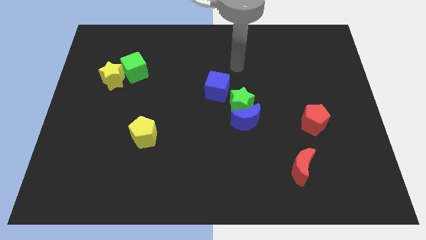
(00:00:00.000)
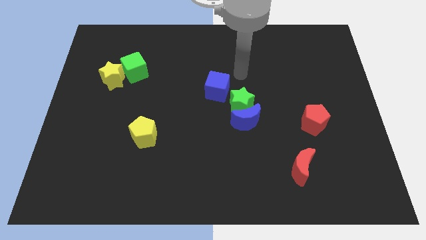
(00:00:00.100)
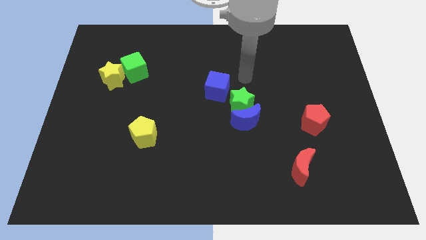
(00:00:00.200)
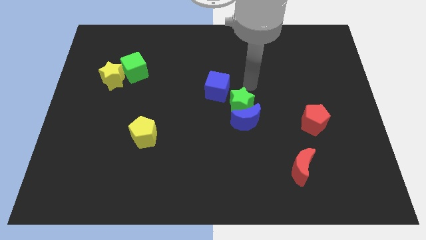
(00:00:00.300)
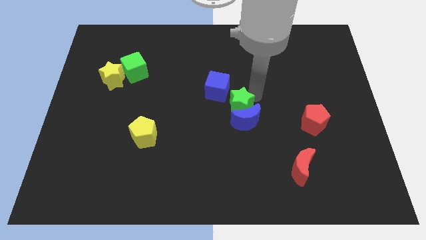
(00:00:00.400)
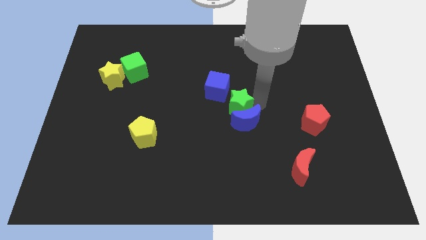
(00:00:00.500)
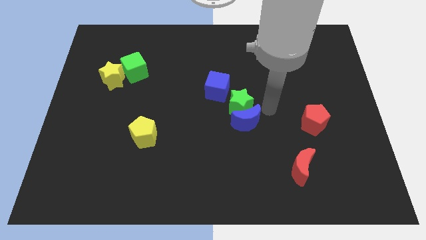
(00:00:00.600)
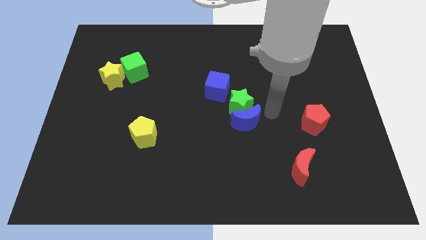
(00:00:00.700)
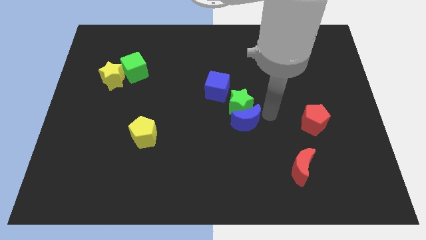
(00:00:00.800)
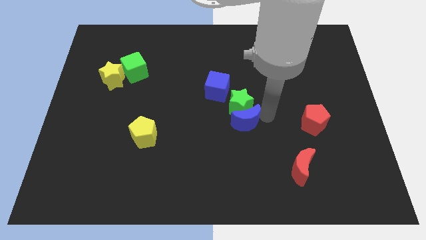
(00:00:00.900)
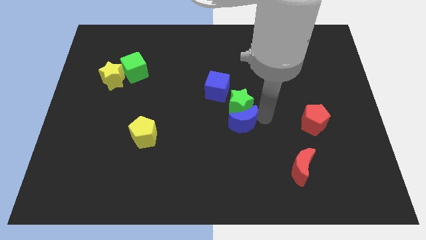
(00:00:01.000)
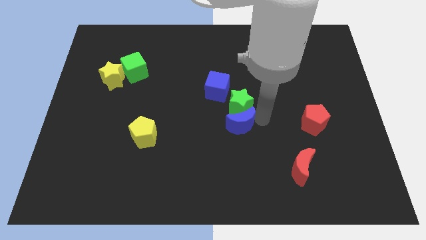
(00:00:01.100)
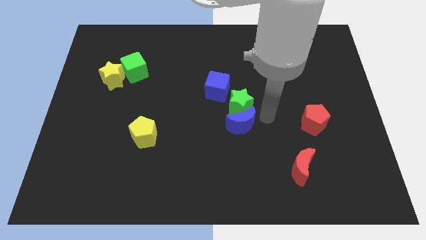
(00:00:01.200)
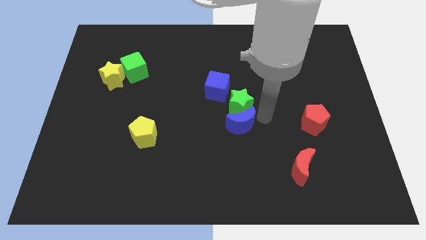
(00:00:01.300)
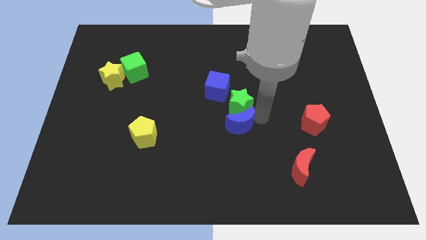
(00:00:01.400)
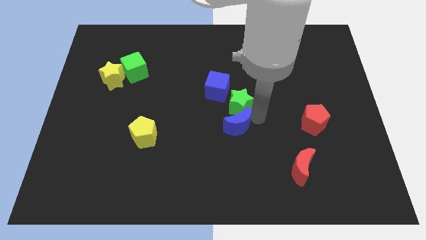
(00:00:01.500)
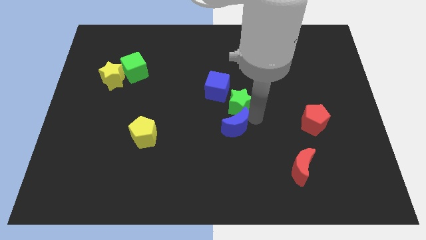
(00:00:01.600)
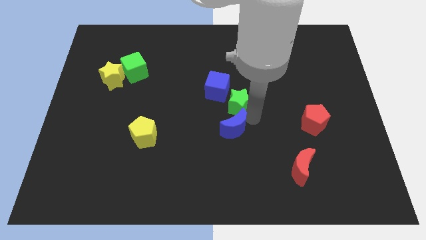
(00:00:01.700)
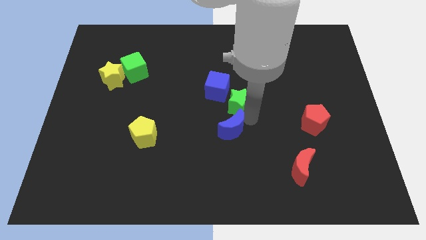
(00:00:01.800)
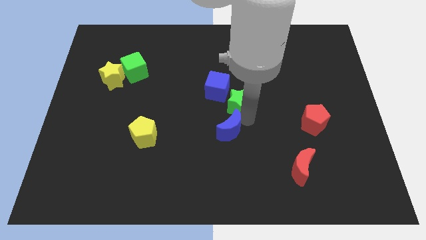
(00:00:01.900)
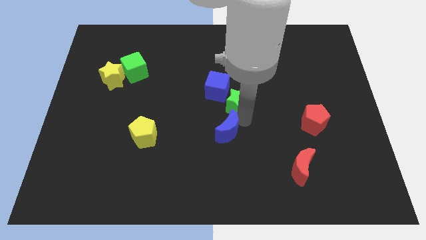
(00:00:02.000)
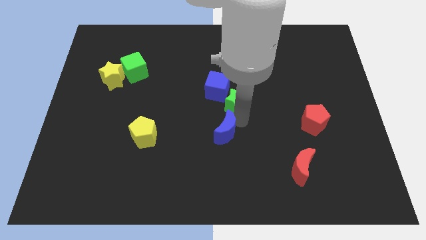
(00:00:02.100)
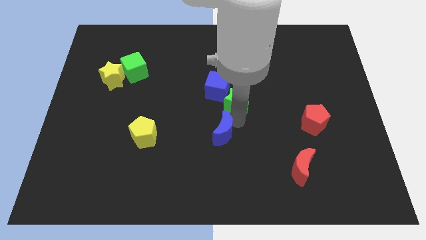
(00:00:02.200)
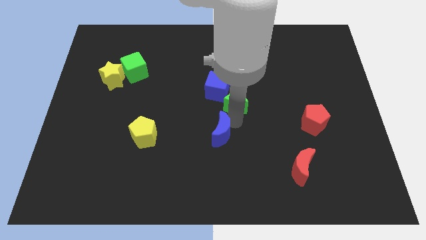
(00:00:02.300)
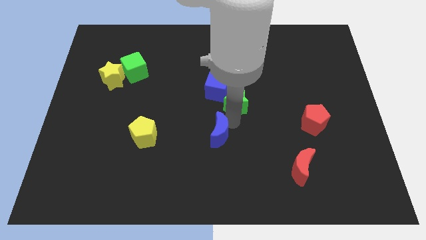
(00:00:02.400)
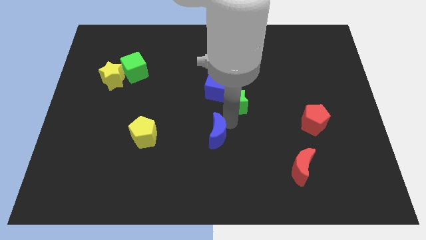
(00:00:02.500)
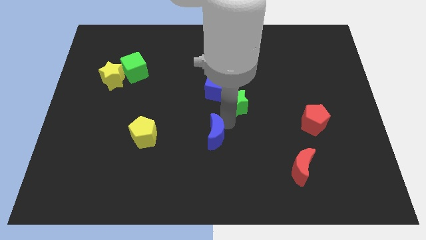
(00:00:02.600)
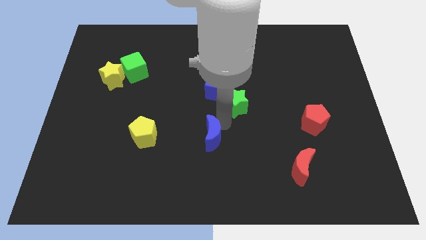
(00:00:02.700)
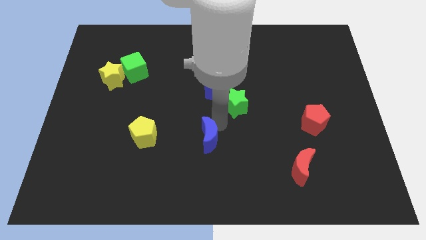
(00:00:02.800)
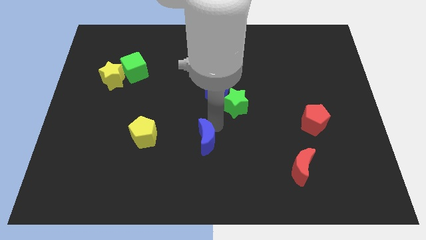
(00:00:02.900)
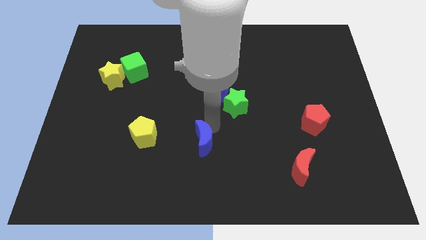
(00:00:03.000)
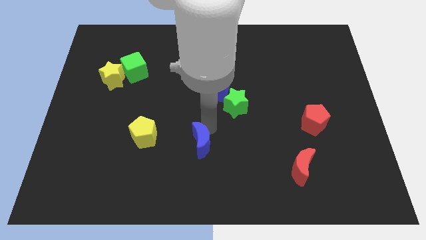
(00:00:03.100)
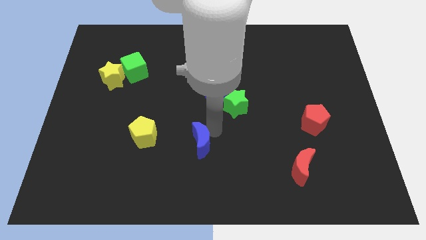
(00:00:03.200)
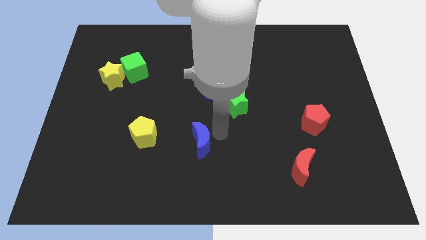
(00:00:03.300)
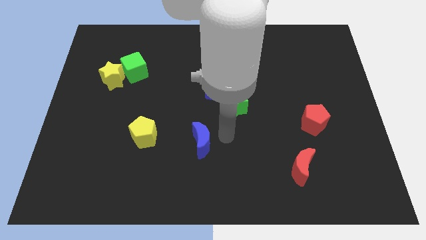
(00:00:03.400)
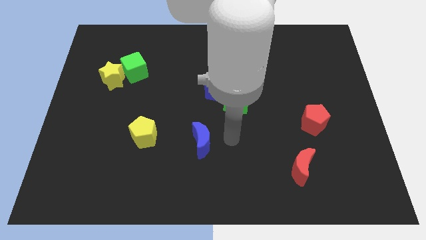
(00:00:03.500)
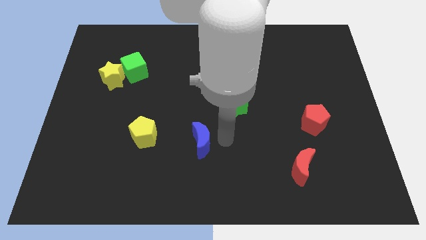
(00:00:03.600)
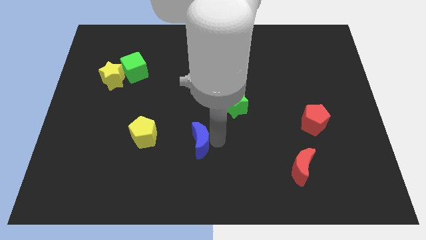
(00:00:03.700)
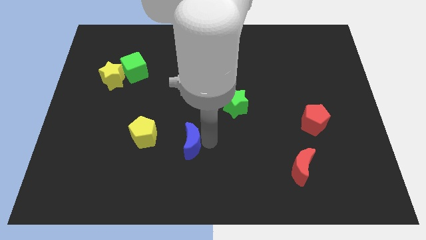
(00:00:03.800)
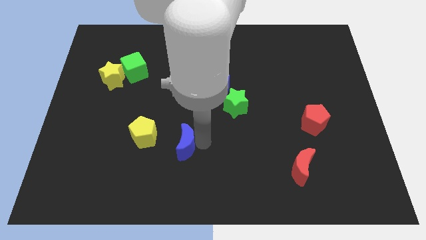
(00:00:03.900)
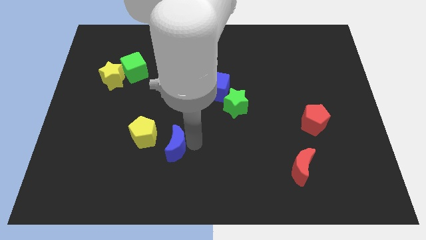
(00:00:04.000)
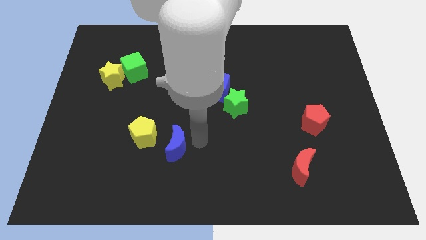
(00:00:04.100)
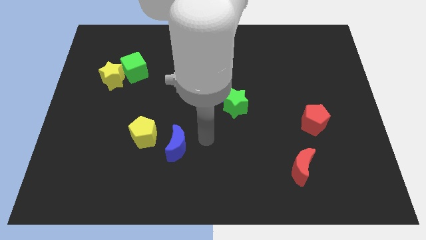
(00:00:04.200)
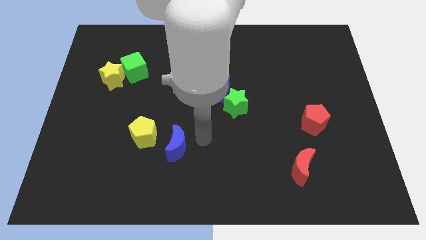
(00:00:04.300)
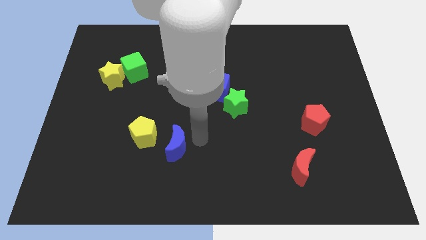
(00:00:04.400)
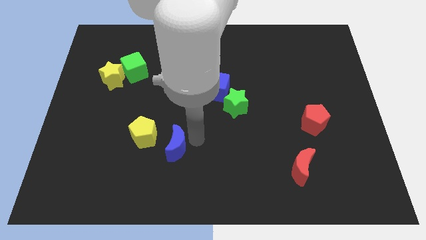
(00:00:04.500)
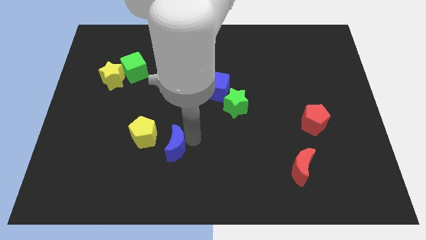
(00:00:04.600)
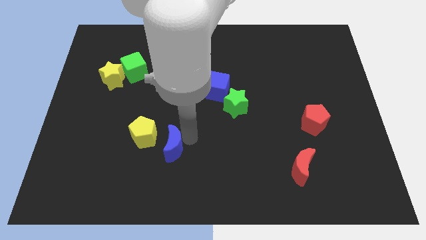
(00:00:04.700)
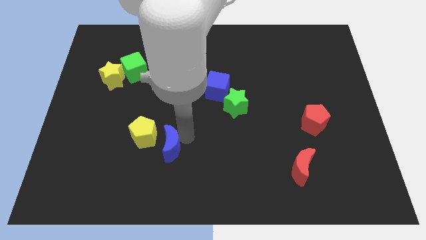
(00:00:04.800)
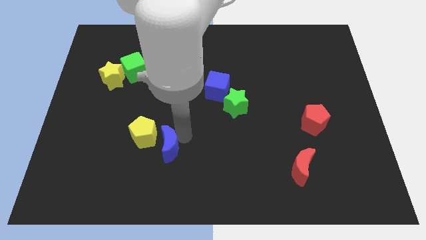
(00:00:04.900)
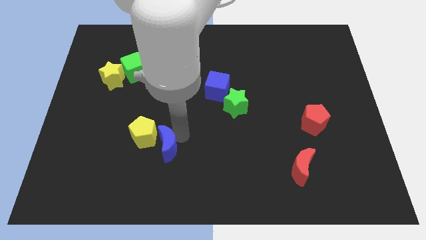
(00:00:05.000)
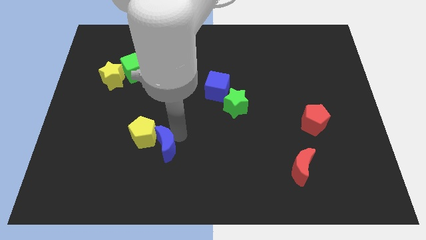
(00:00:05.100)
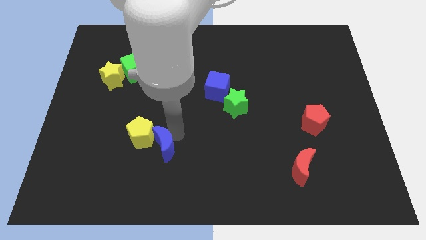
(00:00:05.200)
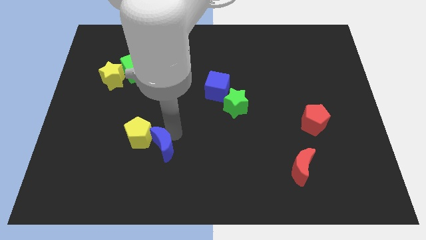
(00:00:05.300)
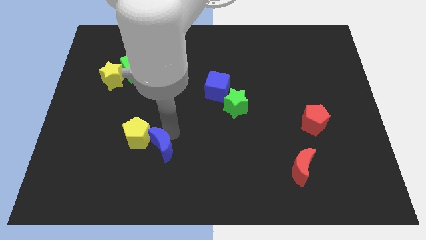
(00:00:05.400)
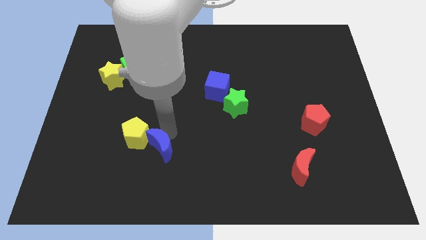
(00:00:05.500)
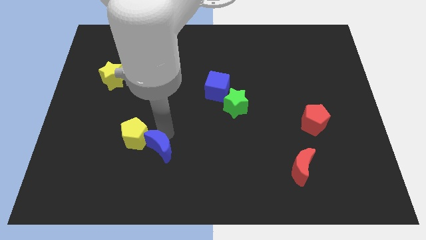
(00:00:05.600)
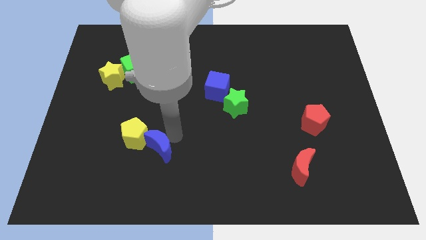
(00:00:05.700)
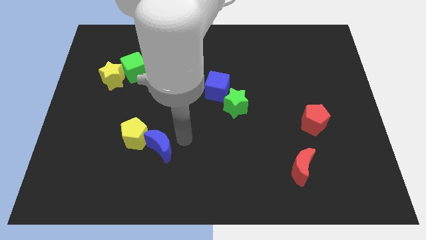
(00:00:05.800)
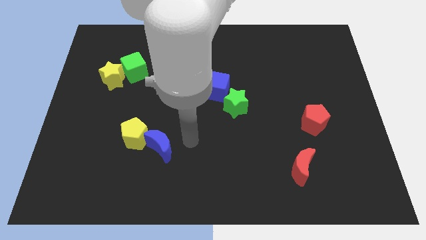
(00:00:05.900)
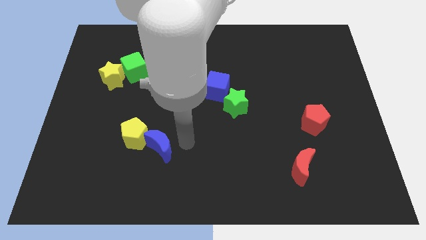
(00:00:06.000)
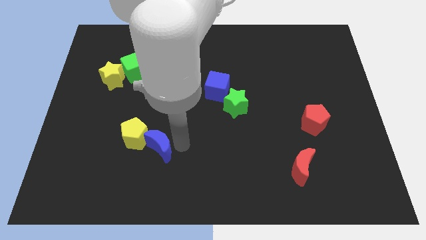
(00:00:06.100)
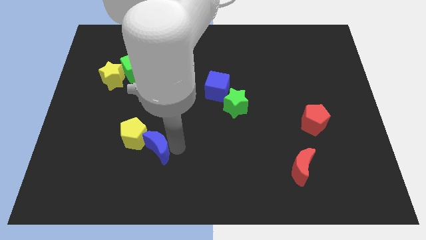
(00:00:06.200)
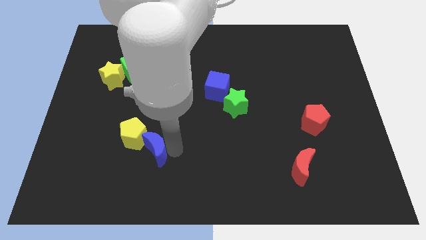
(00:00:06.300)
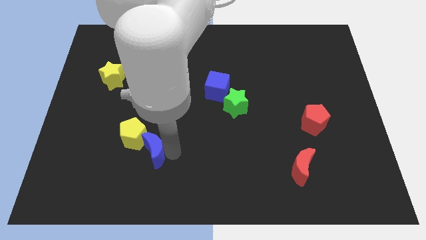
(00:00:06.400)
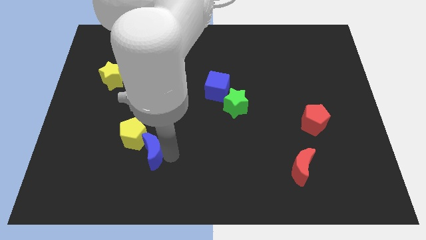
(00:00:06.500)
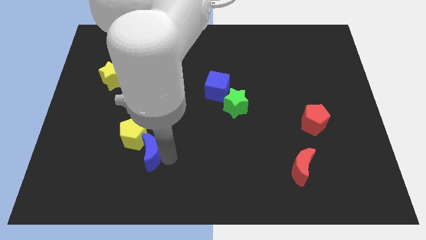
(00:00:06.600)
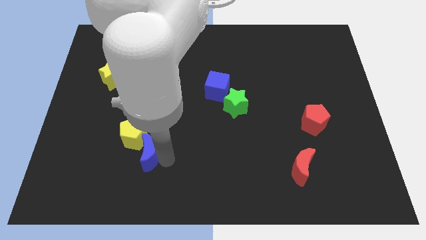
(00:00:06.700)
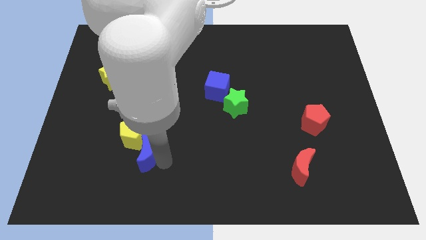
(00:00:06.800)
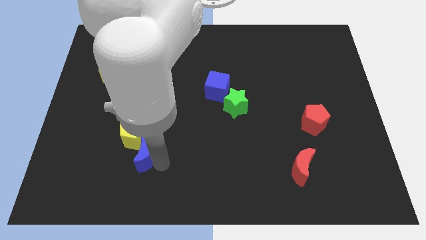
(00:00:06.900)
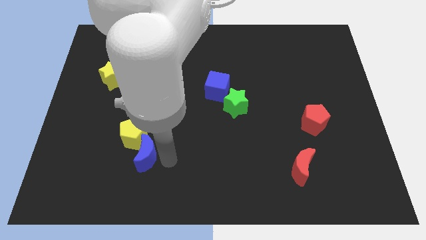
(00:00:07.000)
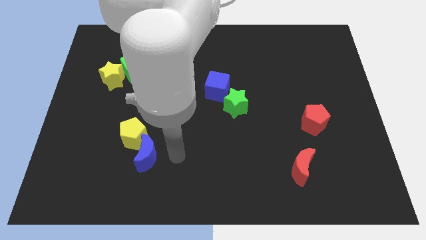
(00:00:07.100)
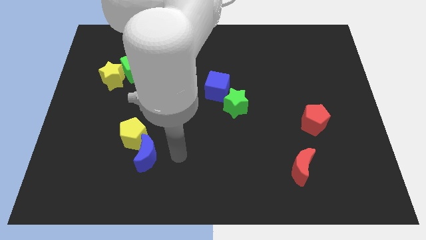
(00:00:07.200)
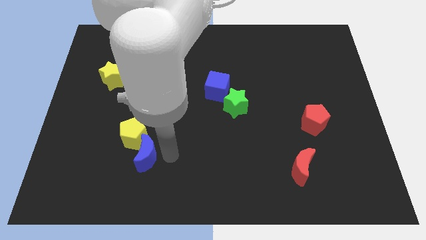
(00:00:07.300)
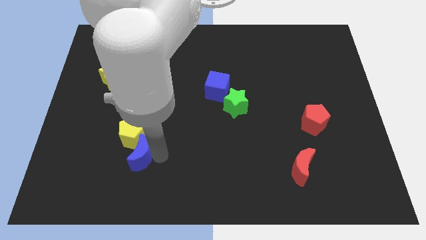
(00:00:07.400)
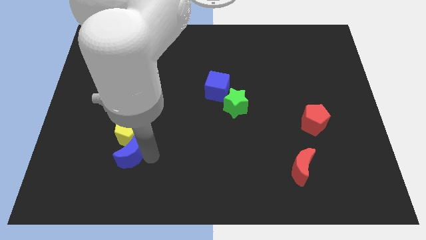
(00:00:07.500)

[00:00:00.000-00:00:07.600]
move the blue moon to the bottom left side of the yellow pentagon
